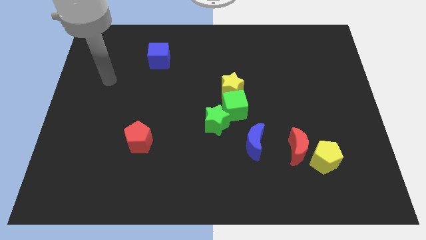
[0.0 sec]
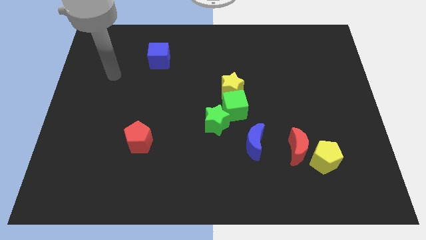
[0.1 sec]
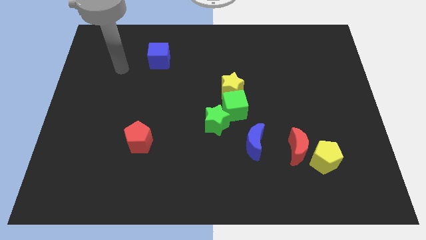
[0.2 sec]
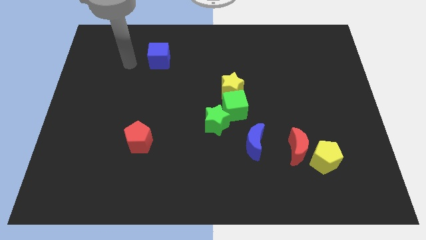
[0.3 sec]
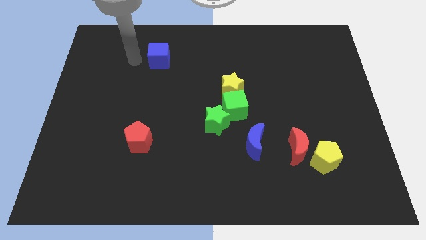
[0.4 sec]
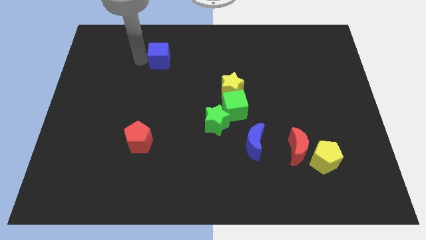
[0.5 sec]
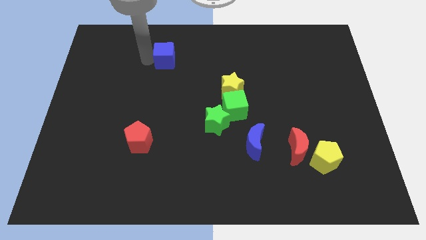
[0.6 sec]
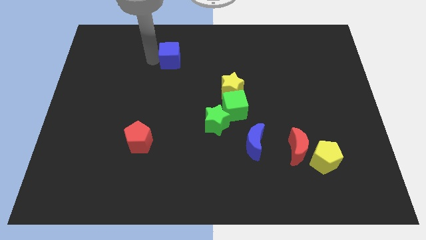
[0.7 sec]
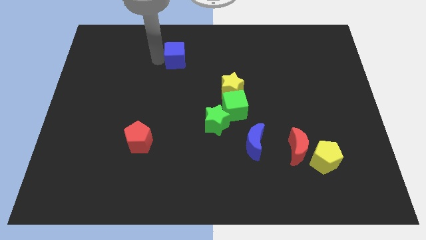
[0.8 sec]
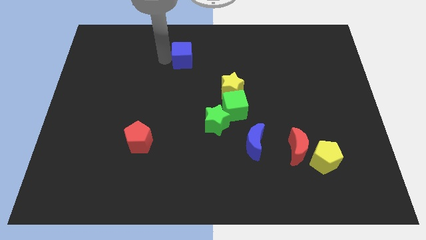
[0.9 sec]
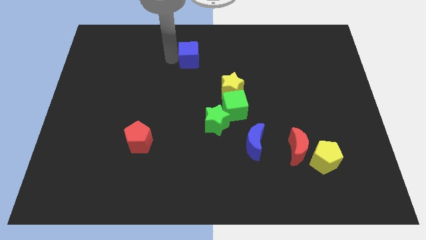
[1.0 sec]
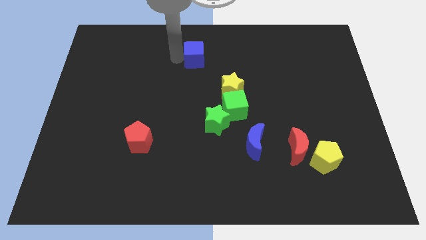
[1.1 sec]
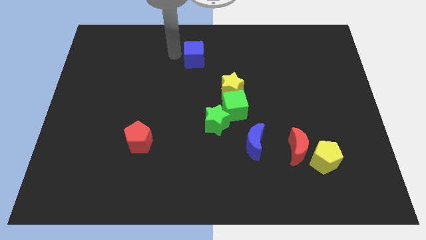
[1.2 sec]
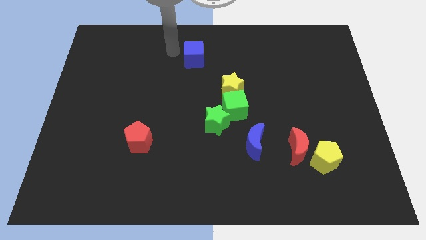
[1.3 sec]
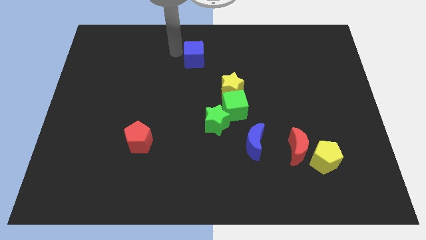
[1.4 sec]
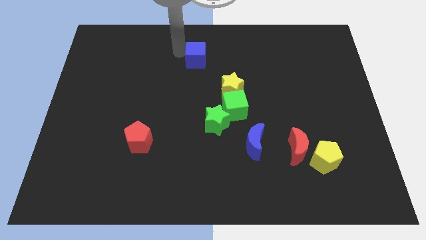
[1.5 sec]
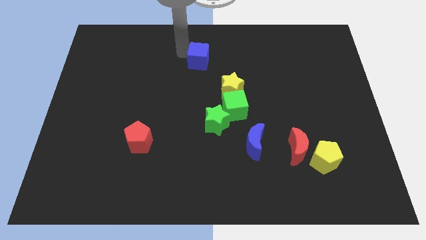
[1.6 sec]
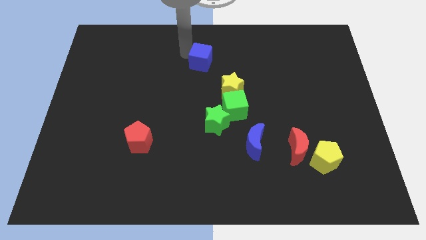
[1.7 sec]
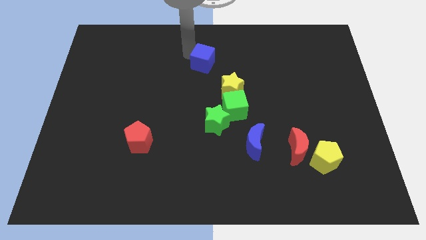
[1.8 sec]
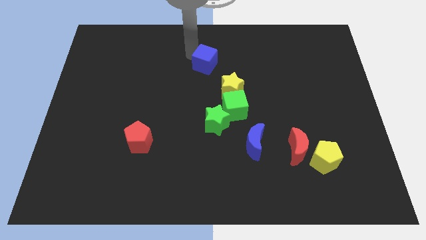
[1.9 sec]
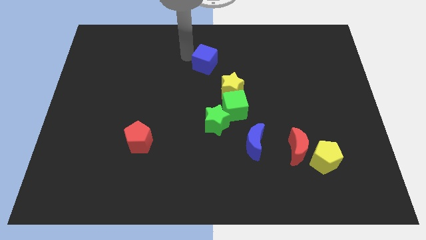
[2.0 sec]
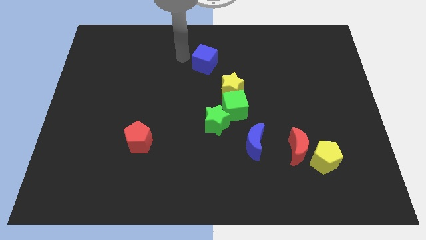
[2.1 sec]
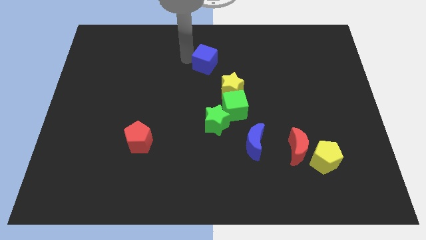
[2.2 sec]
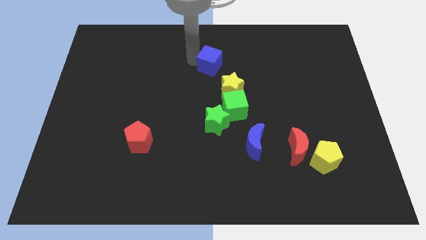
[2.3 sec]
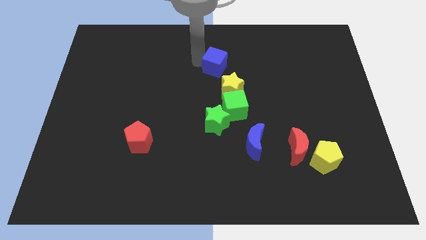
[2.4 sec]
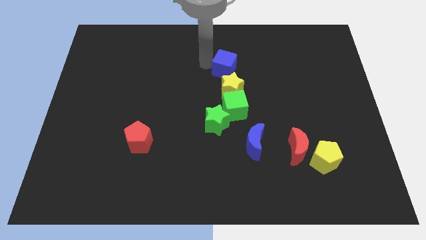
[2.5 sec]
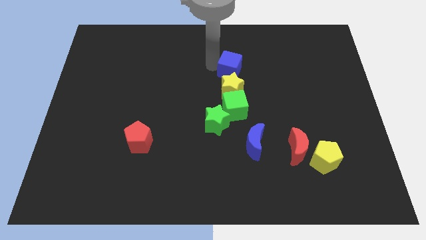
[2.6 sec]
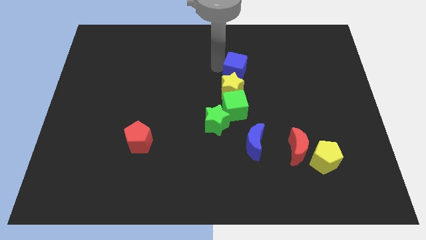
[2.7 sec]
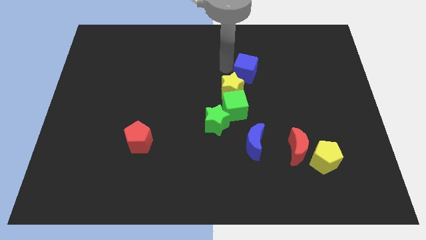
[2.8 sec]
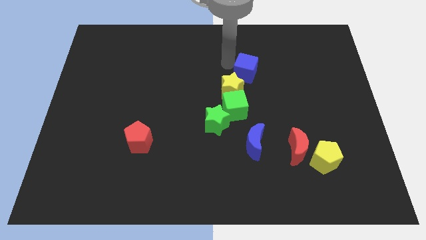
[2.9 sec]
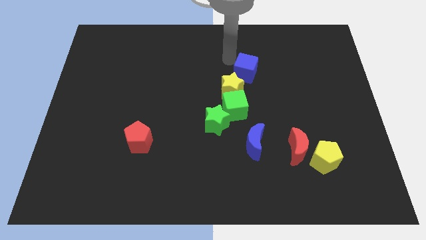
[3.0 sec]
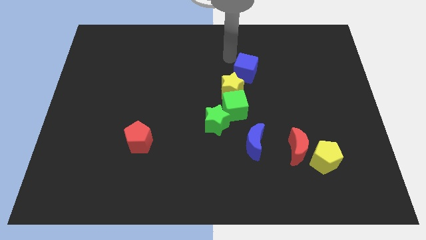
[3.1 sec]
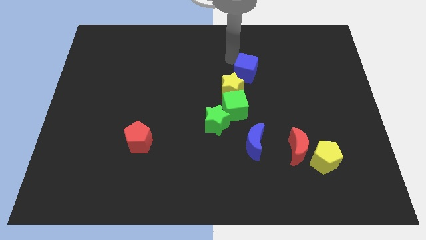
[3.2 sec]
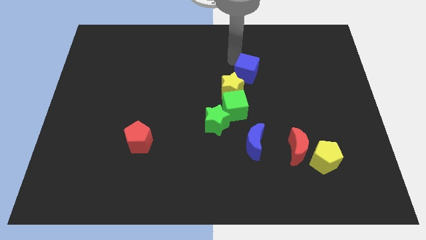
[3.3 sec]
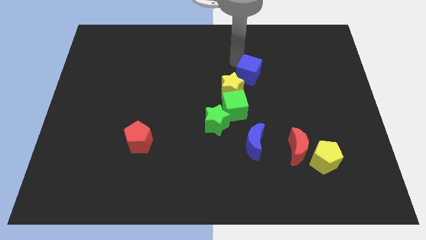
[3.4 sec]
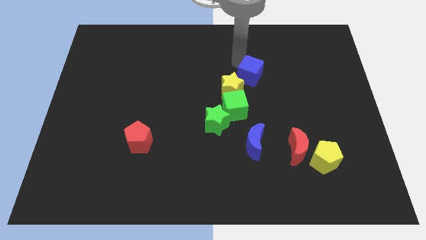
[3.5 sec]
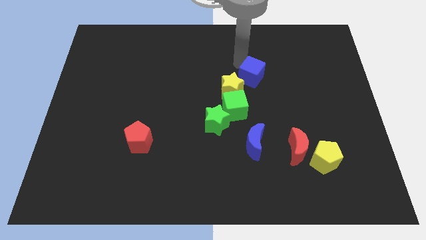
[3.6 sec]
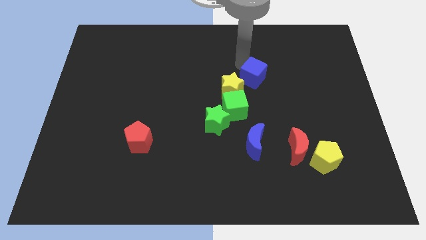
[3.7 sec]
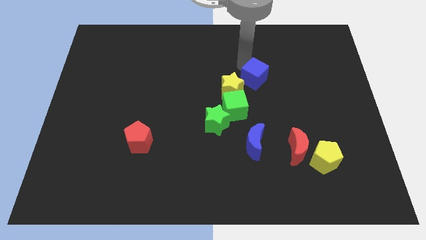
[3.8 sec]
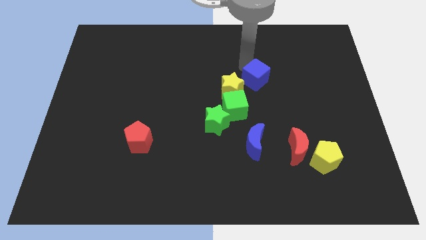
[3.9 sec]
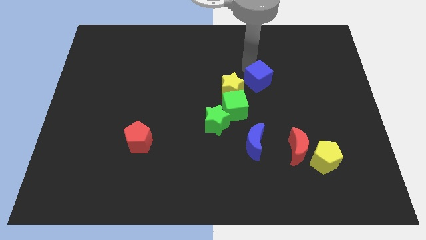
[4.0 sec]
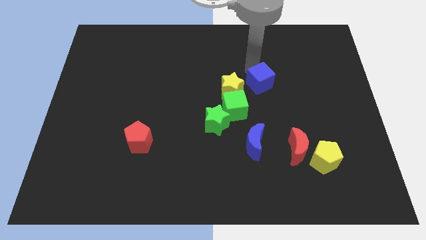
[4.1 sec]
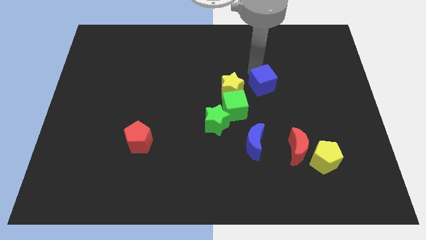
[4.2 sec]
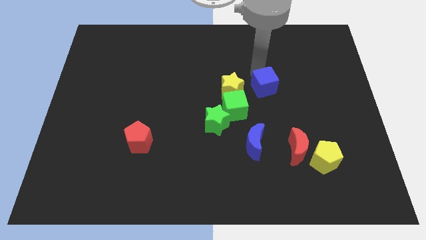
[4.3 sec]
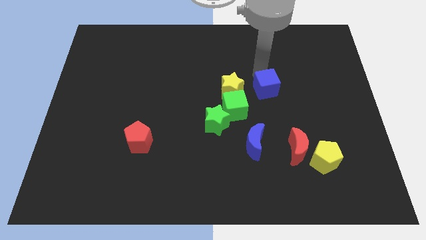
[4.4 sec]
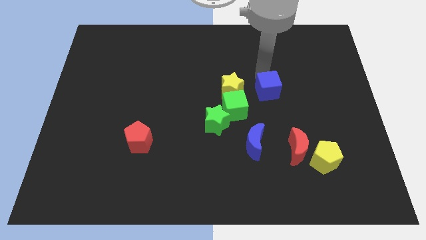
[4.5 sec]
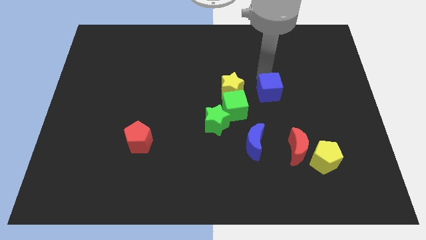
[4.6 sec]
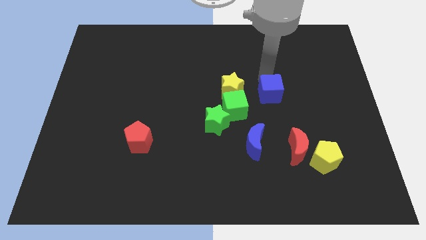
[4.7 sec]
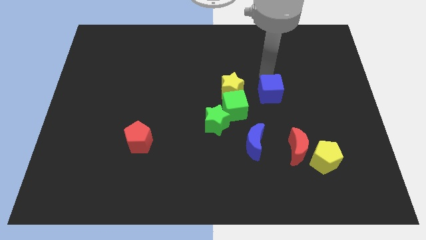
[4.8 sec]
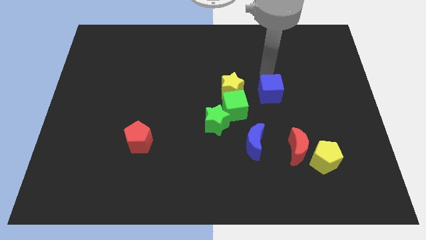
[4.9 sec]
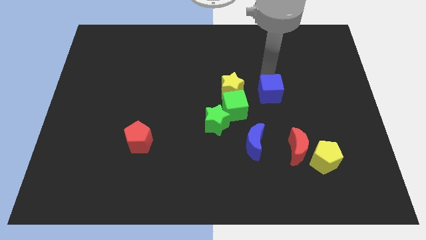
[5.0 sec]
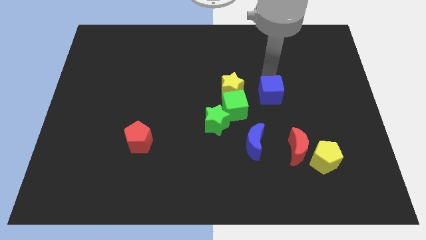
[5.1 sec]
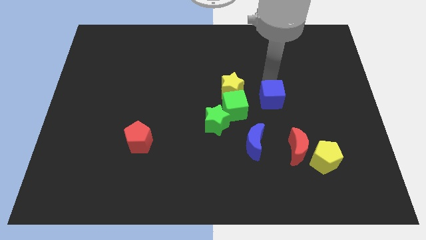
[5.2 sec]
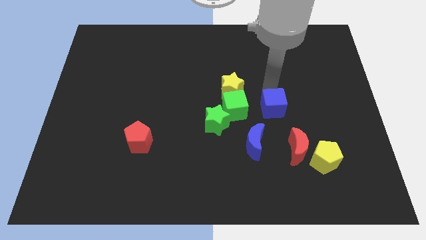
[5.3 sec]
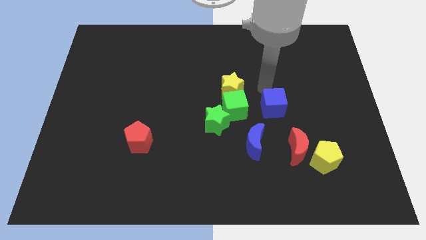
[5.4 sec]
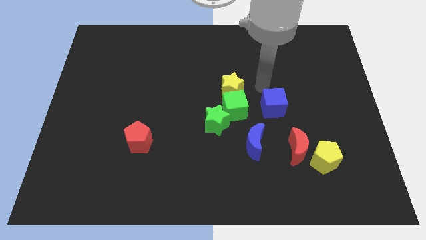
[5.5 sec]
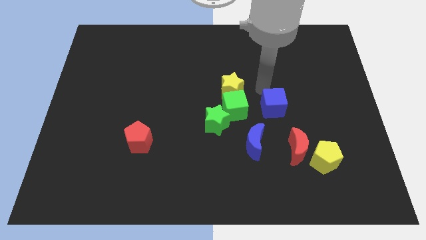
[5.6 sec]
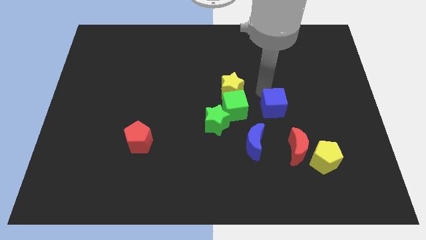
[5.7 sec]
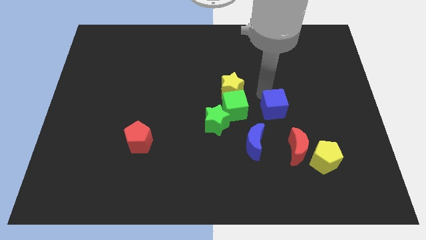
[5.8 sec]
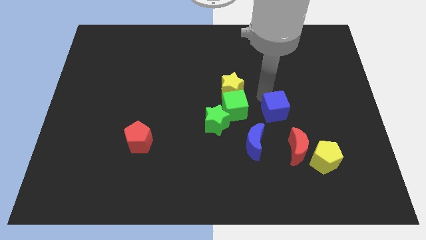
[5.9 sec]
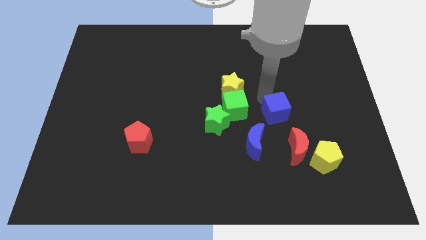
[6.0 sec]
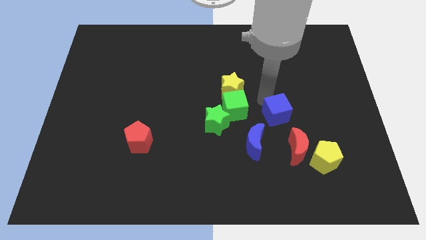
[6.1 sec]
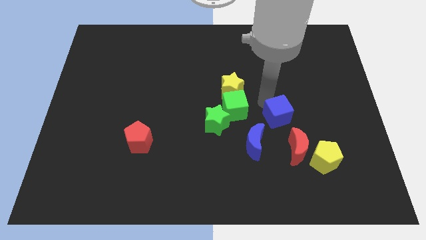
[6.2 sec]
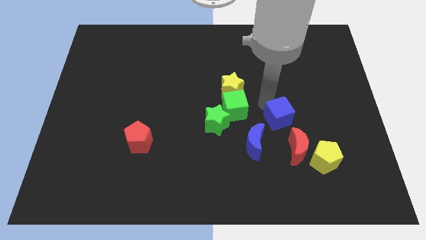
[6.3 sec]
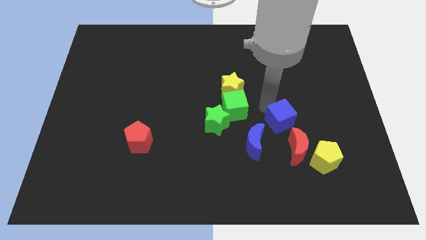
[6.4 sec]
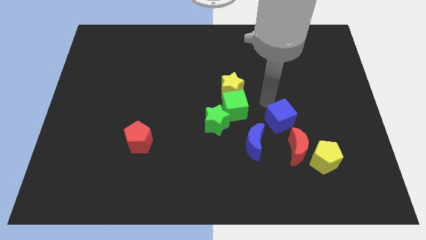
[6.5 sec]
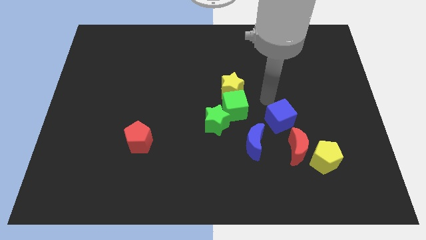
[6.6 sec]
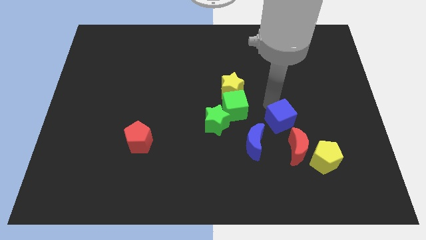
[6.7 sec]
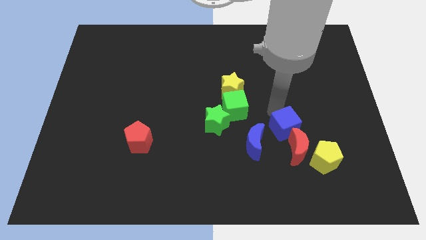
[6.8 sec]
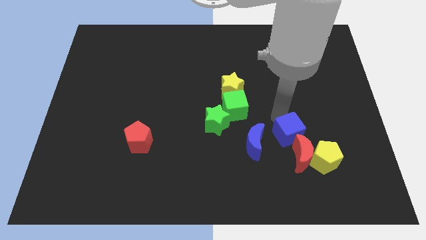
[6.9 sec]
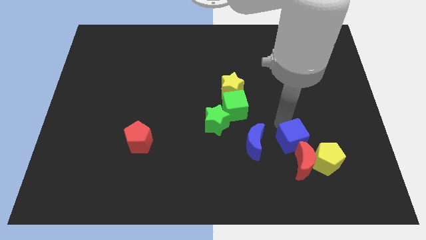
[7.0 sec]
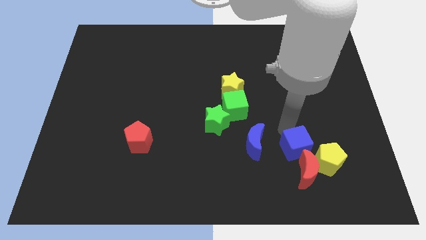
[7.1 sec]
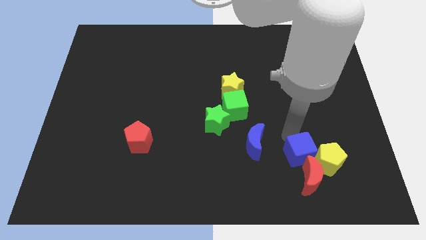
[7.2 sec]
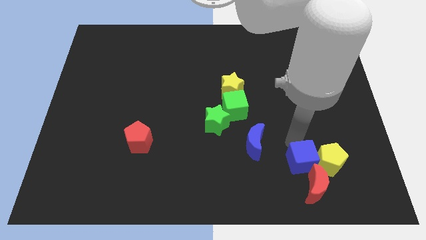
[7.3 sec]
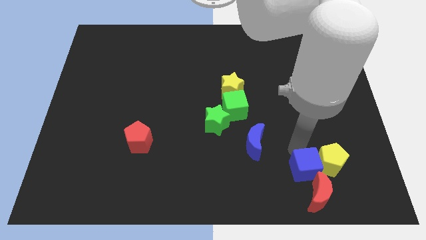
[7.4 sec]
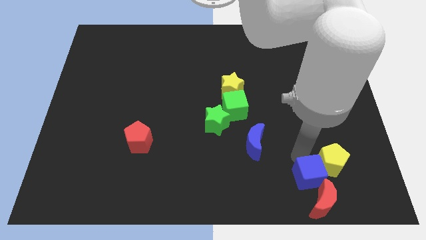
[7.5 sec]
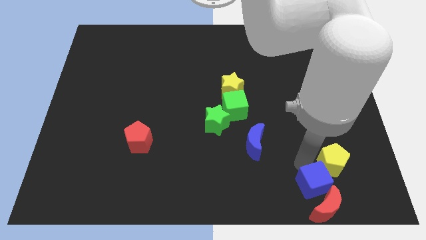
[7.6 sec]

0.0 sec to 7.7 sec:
move the blue cube towards the red moon
